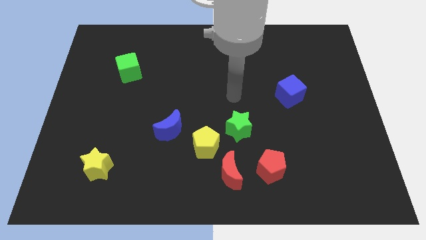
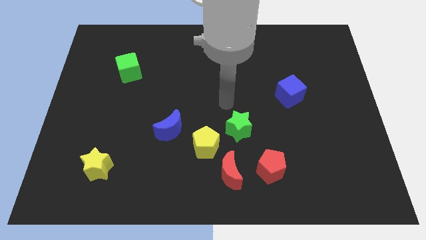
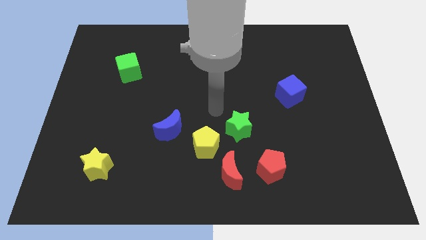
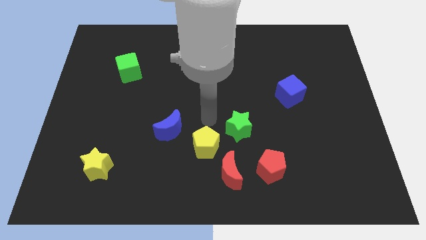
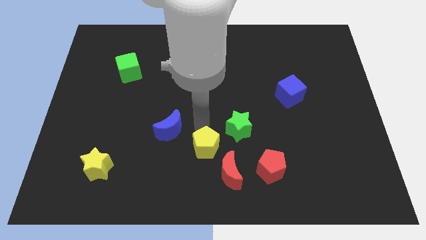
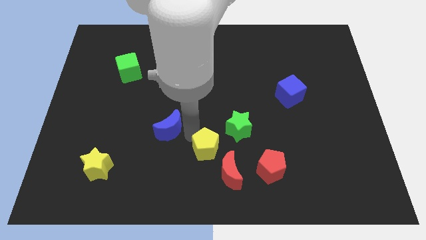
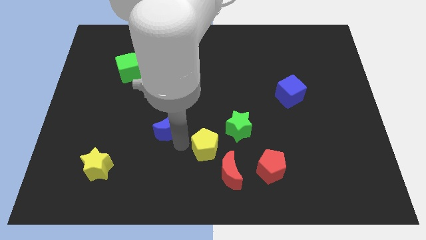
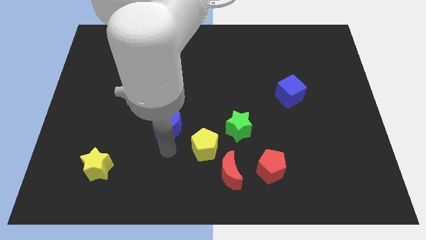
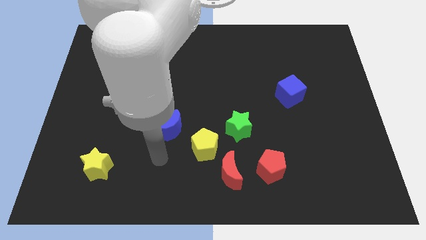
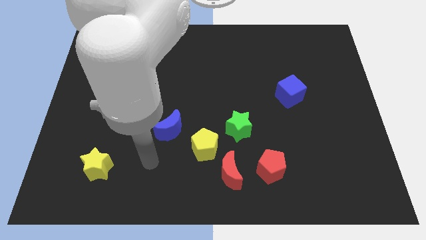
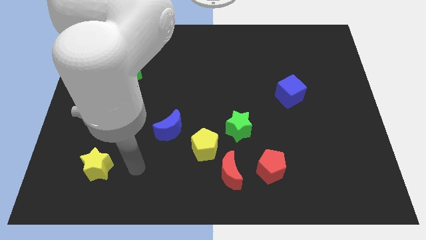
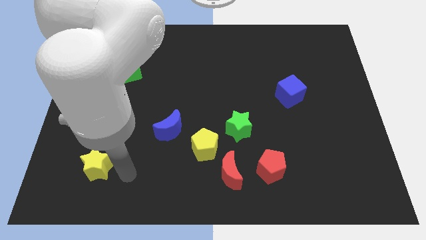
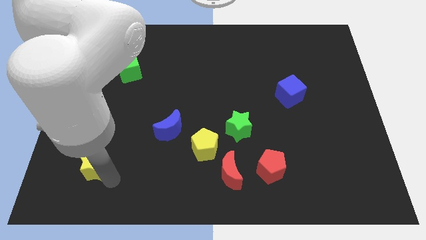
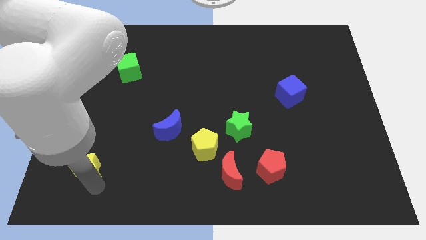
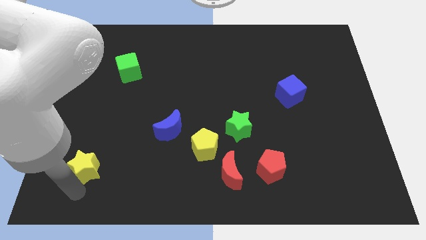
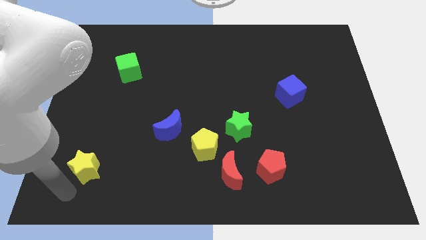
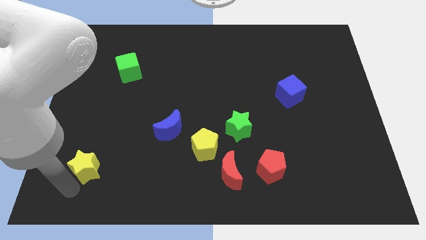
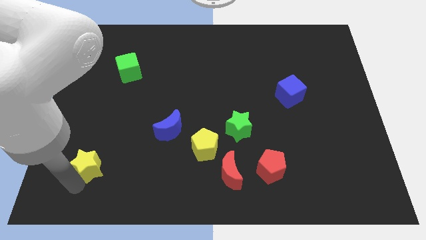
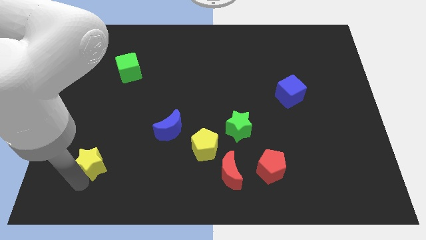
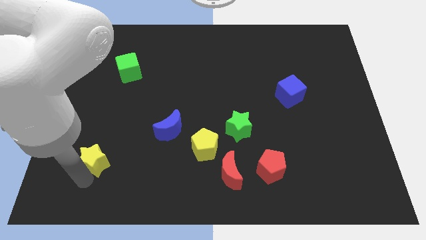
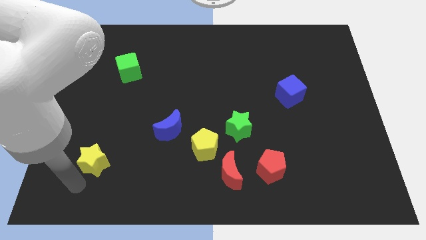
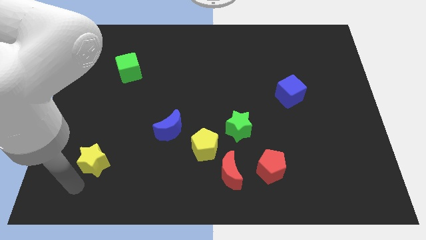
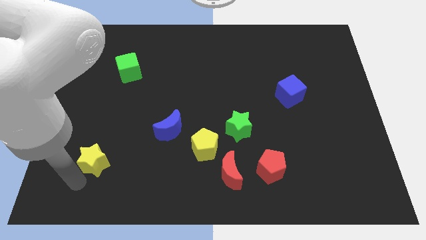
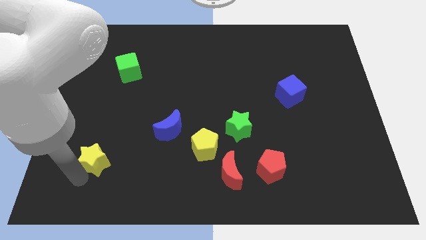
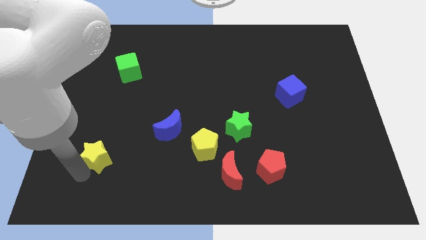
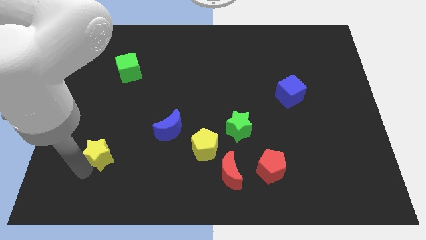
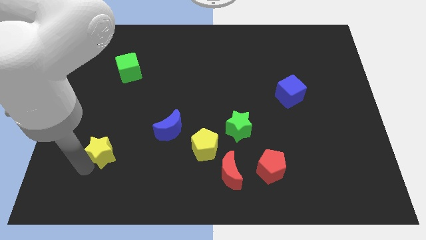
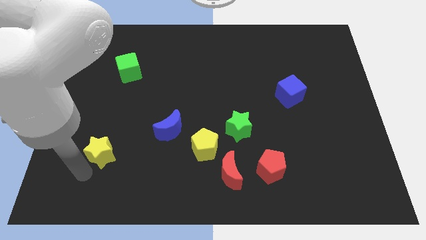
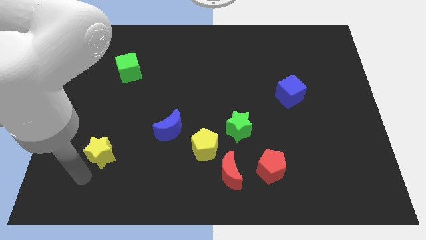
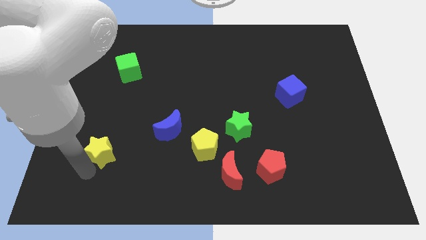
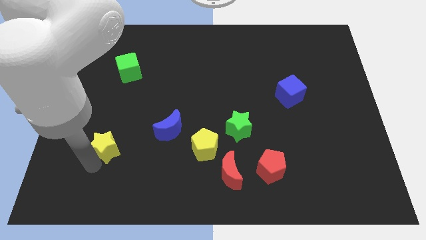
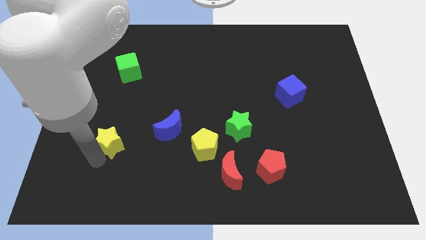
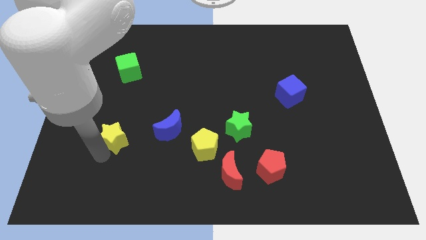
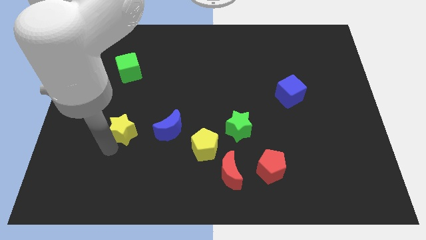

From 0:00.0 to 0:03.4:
move the yellow star up a little

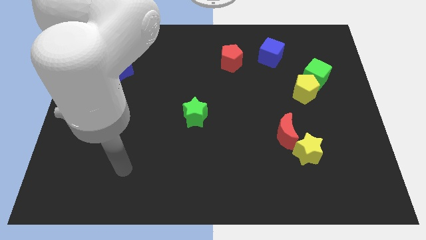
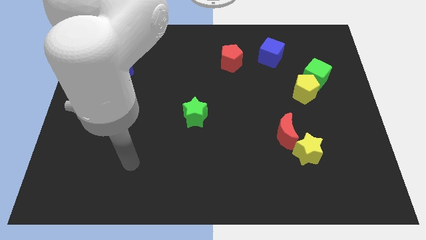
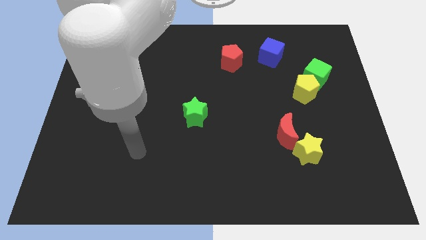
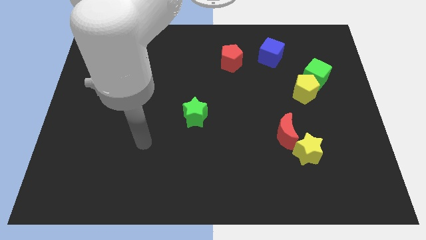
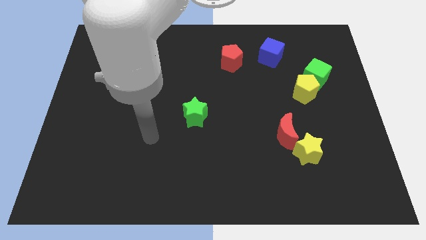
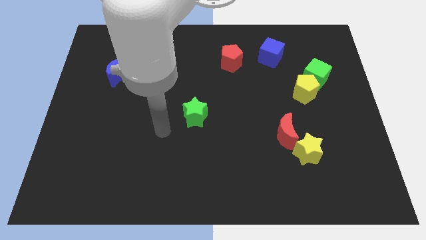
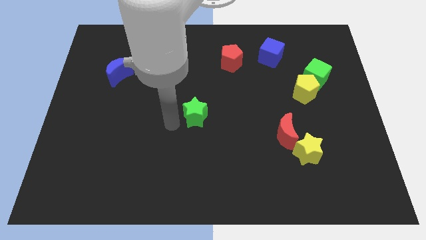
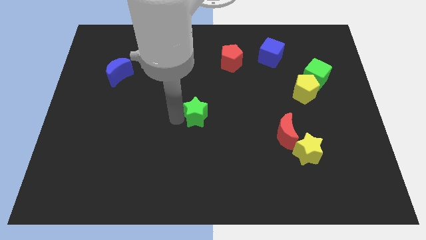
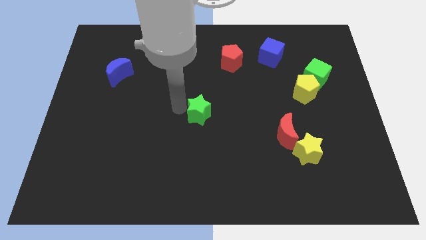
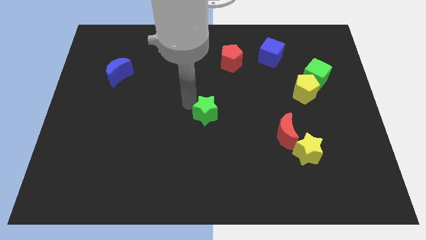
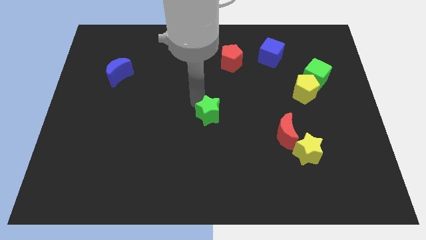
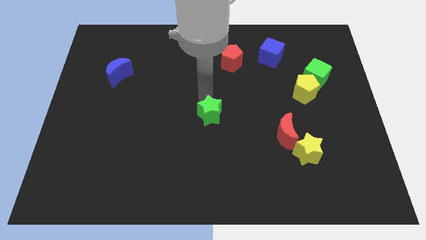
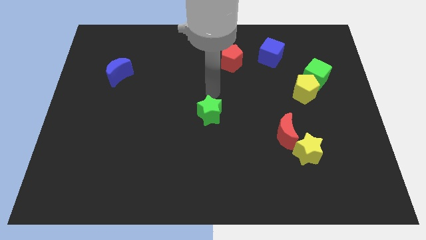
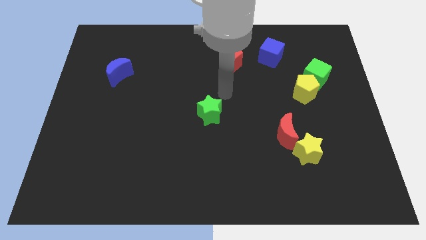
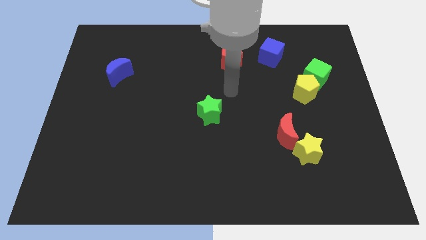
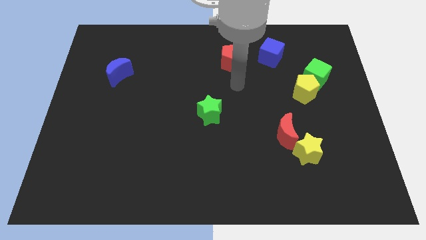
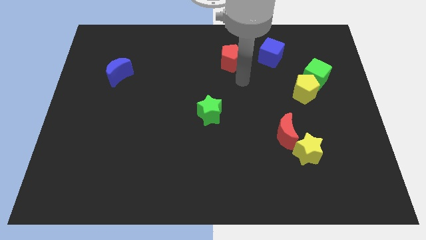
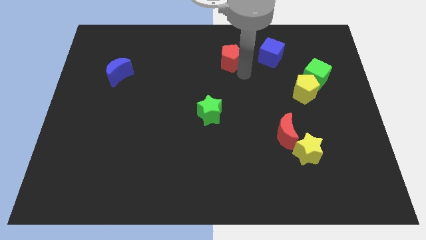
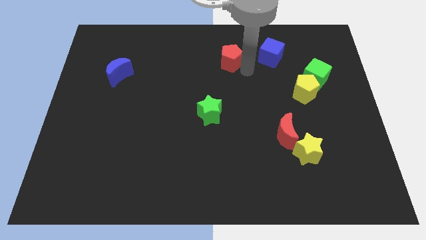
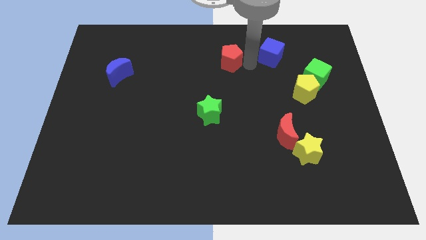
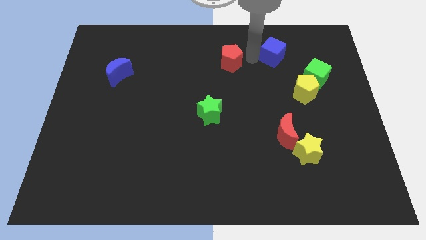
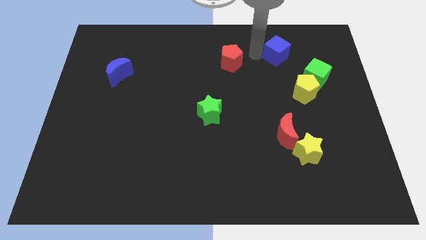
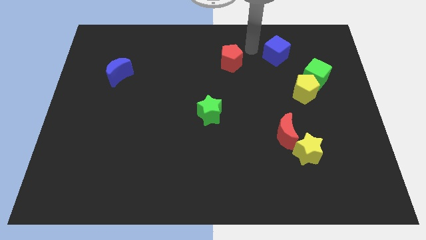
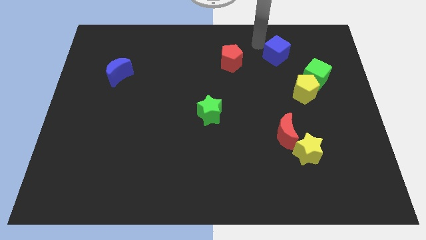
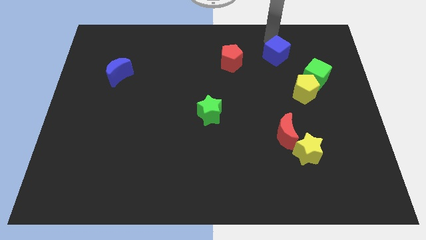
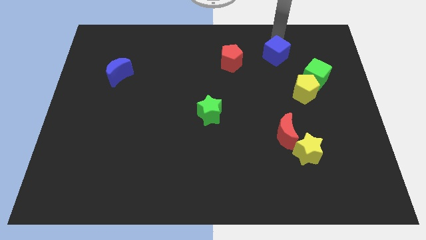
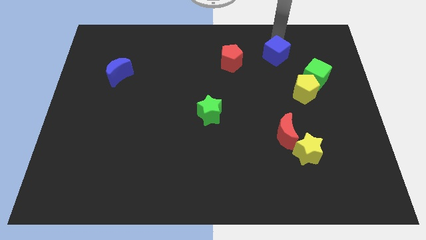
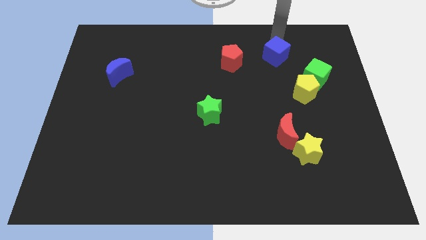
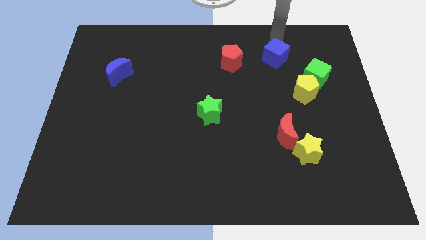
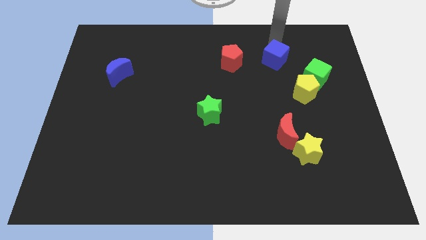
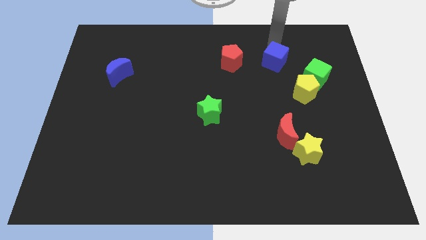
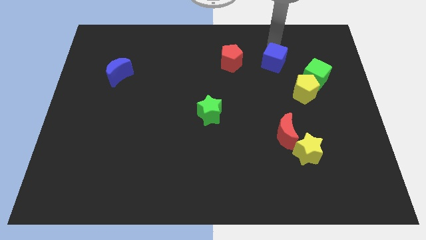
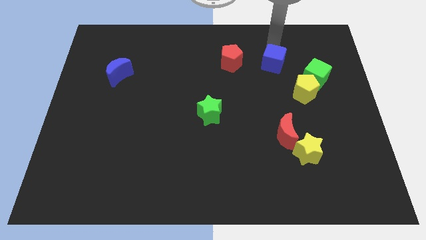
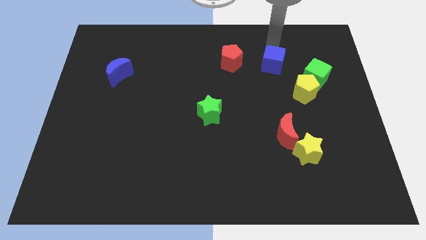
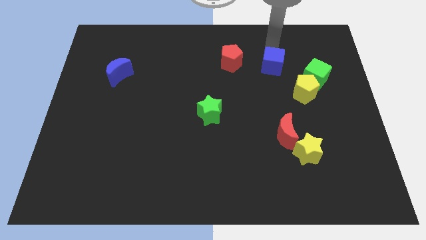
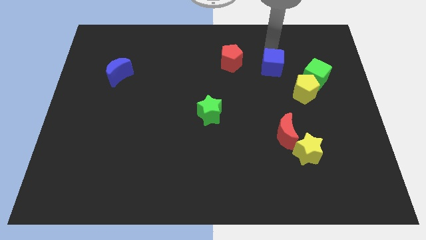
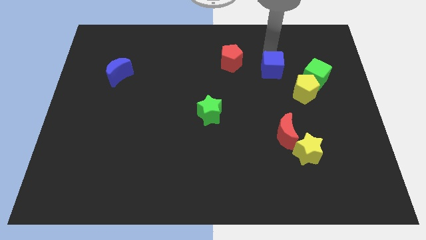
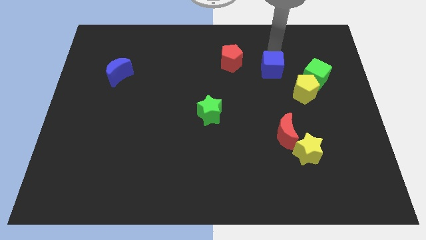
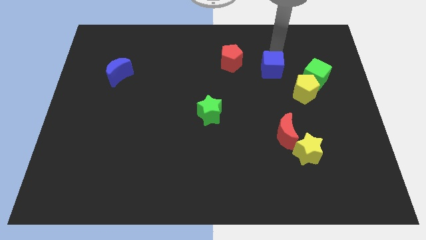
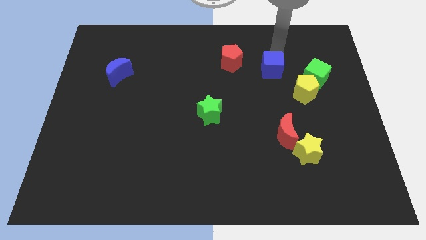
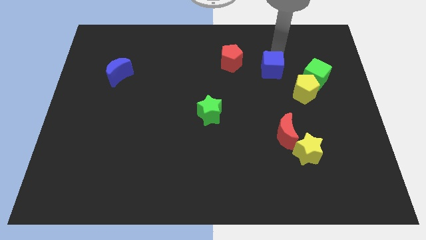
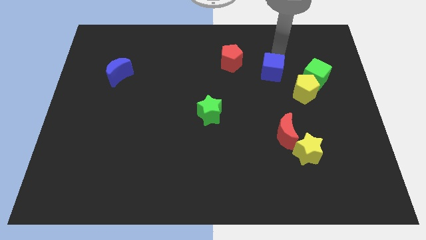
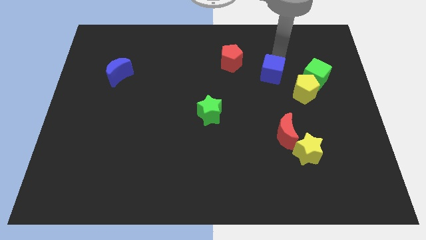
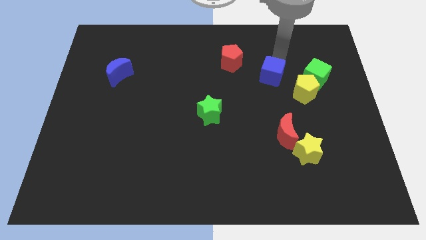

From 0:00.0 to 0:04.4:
slightly slide the blue cube down

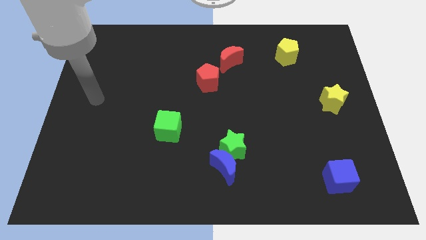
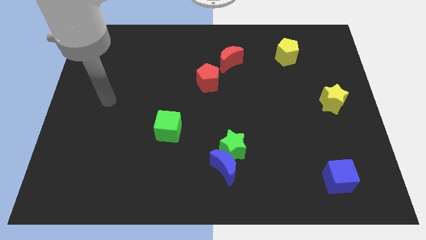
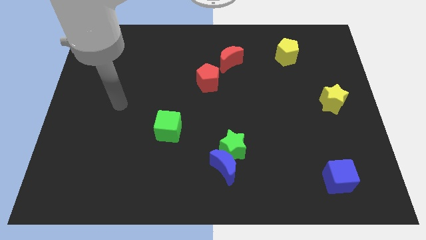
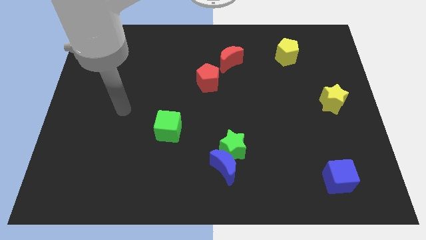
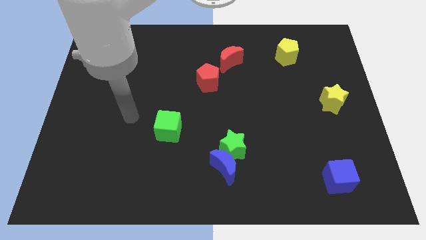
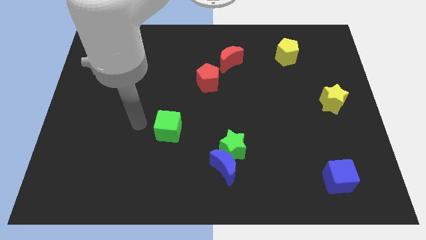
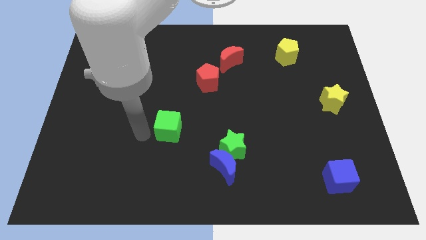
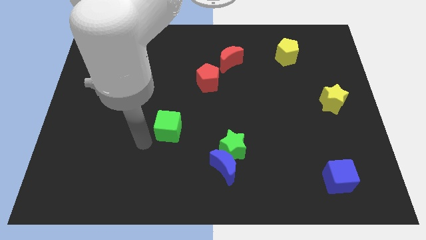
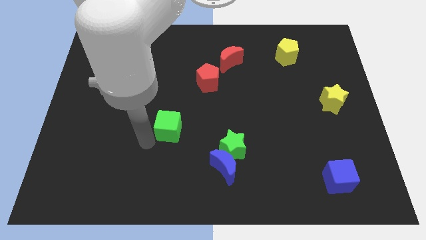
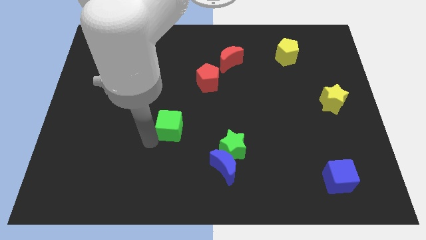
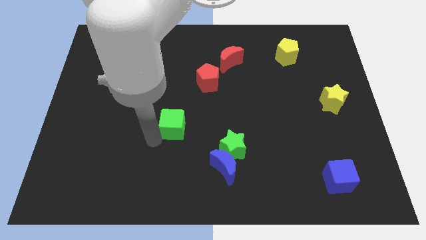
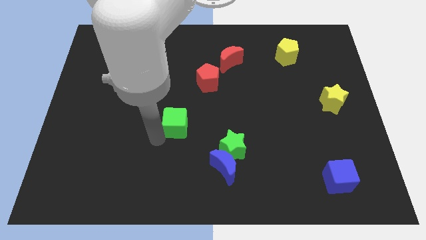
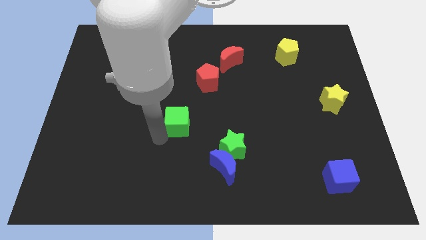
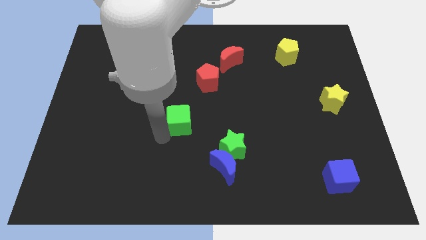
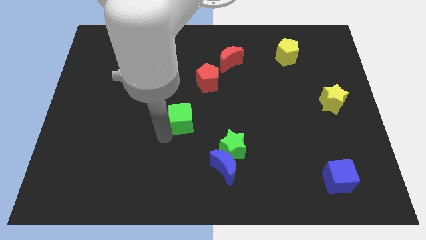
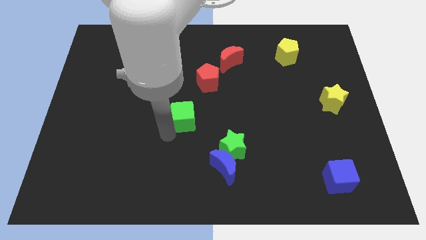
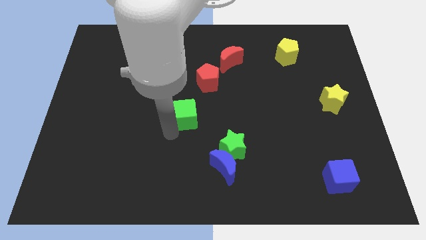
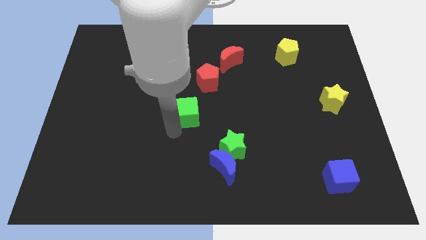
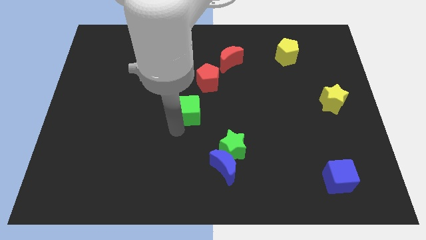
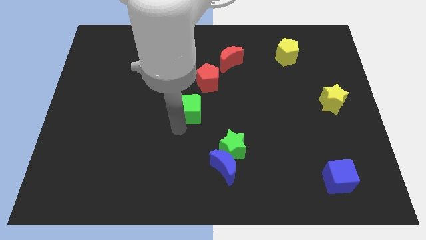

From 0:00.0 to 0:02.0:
slightly move the green cube diagonally up and to the right
